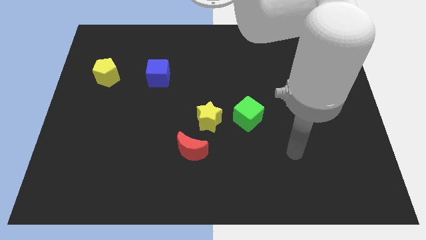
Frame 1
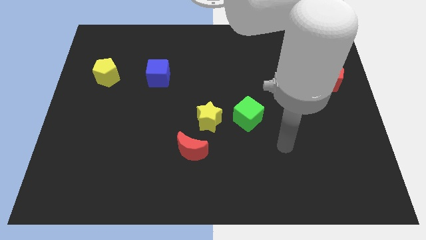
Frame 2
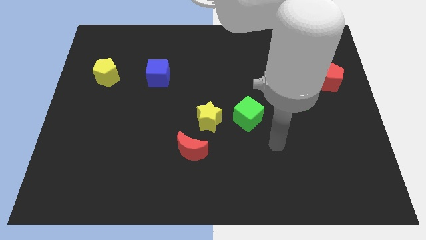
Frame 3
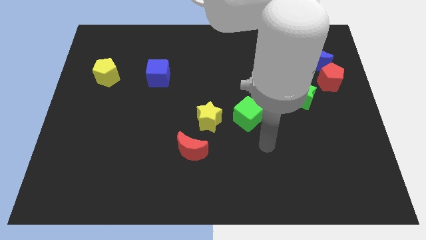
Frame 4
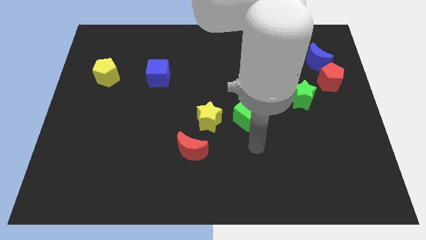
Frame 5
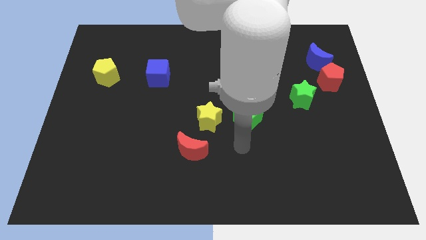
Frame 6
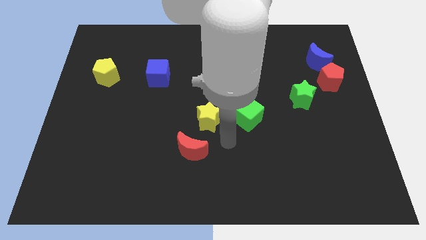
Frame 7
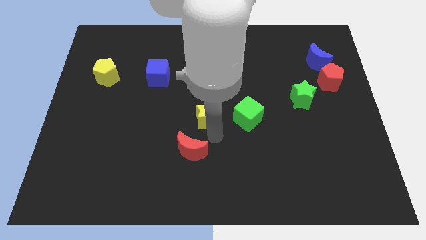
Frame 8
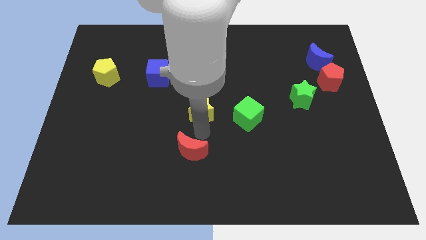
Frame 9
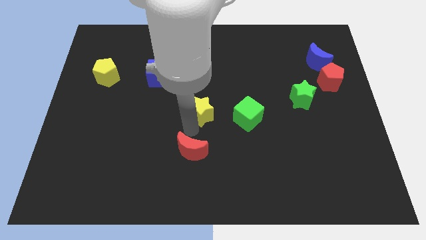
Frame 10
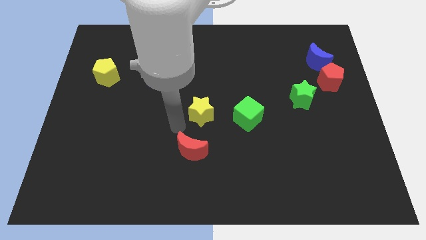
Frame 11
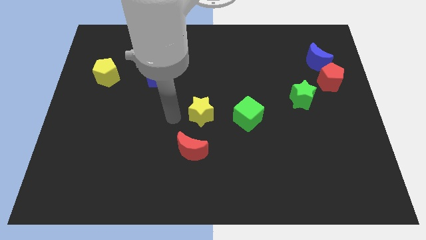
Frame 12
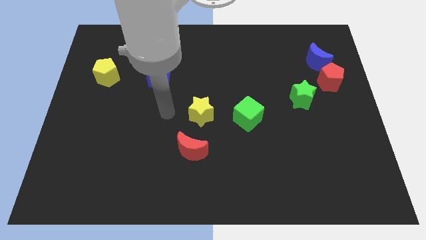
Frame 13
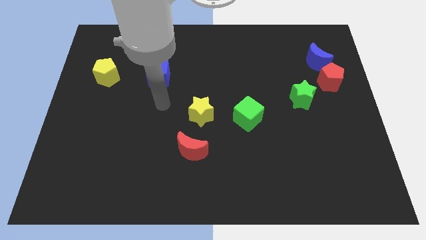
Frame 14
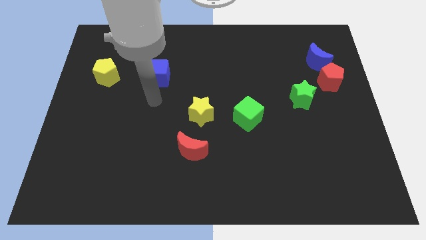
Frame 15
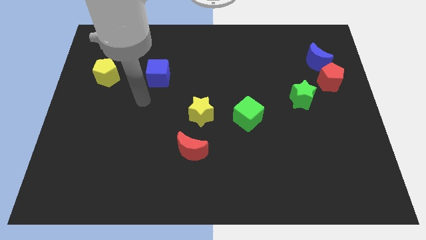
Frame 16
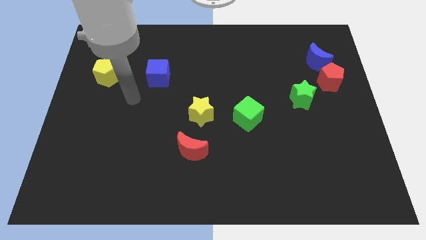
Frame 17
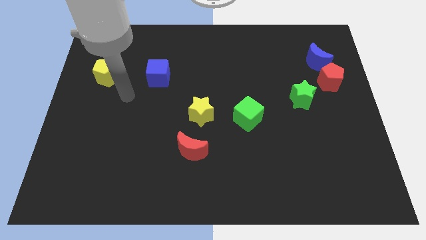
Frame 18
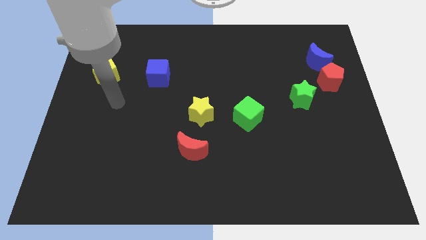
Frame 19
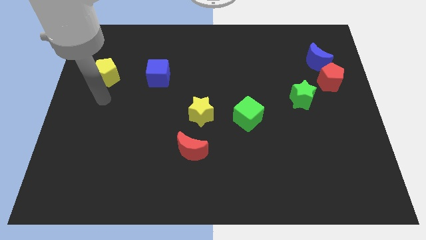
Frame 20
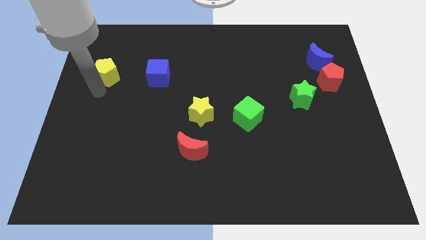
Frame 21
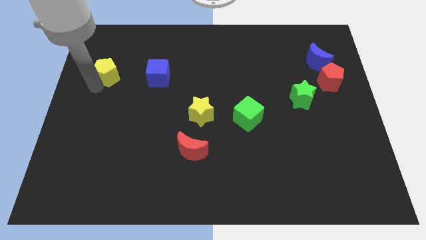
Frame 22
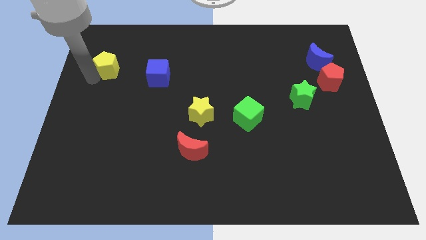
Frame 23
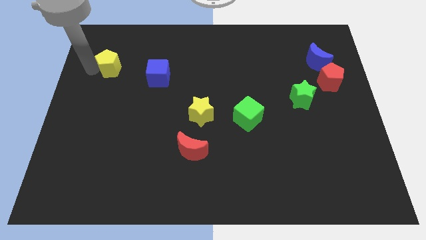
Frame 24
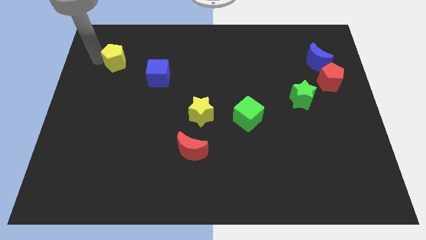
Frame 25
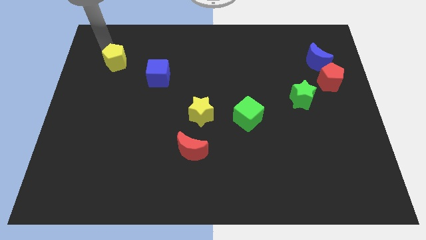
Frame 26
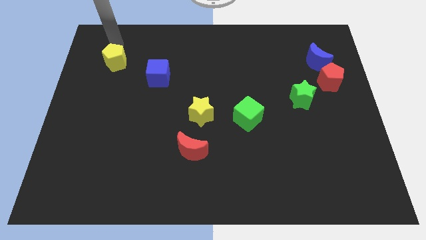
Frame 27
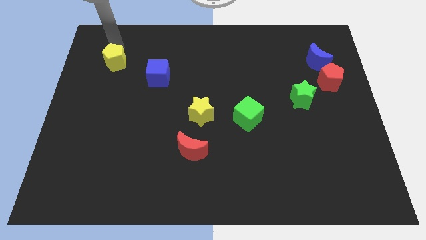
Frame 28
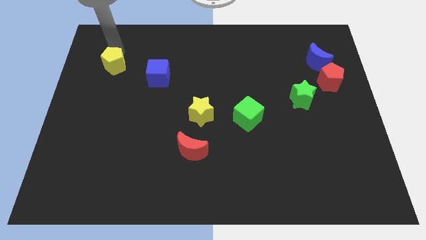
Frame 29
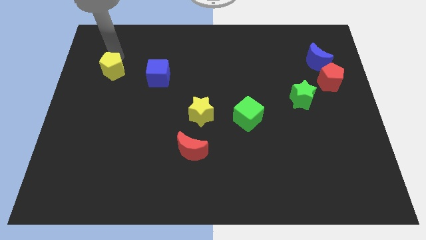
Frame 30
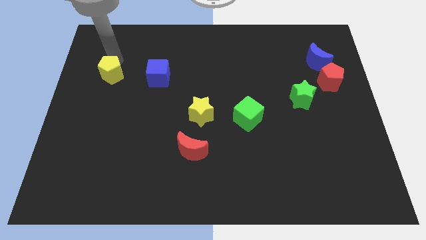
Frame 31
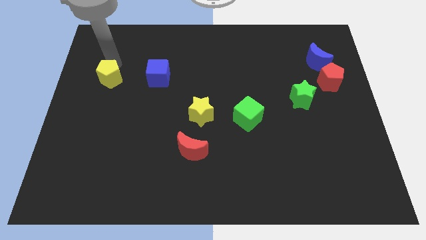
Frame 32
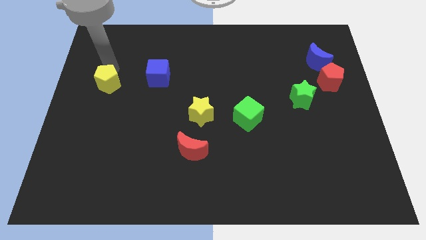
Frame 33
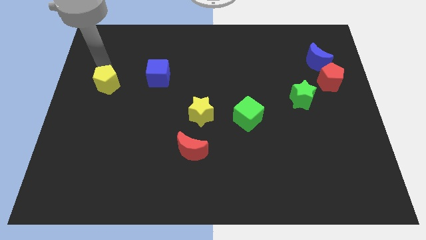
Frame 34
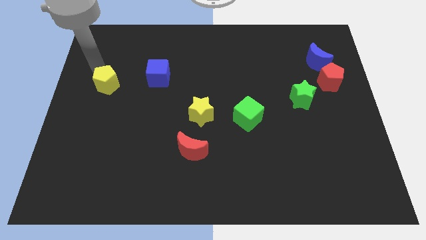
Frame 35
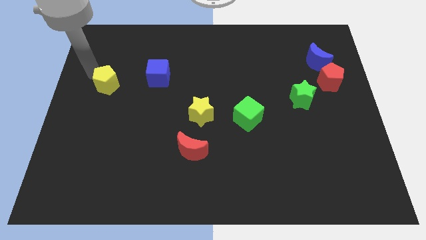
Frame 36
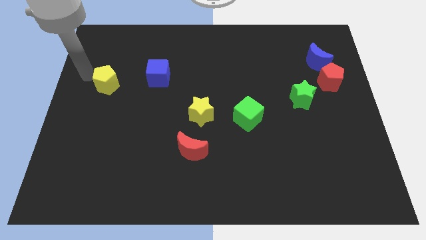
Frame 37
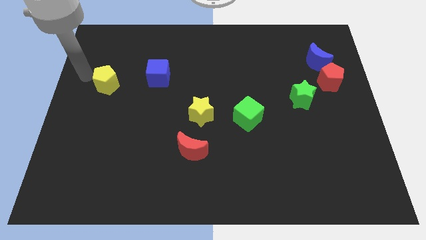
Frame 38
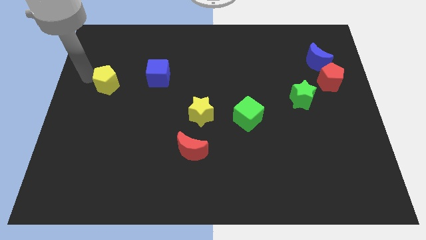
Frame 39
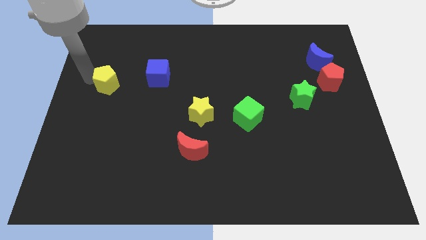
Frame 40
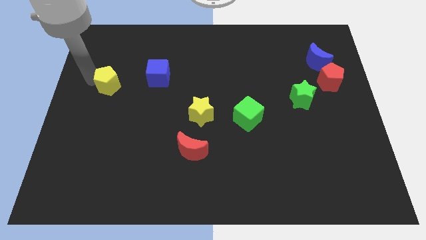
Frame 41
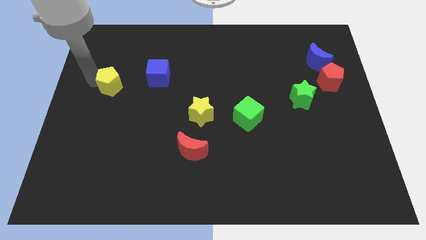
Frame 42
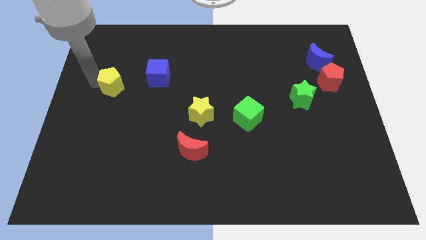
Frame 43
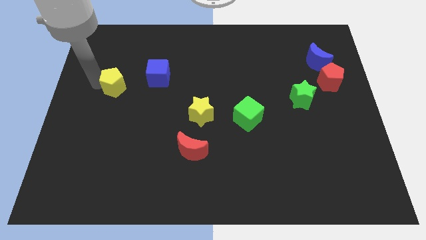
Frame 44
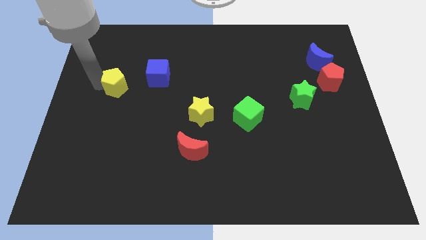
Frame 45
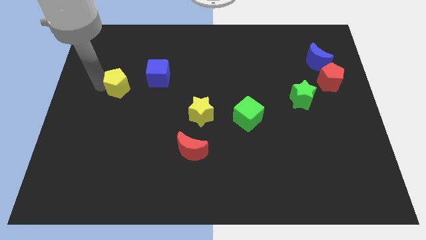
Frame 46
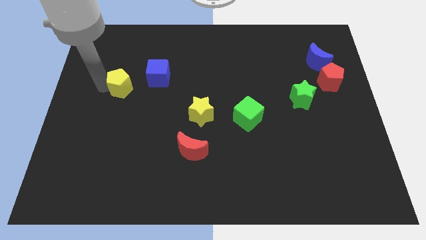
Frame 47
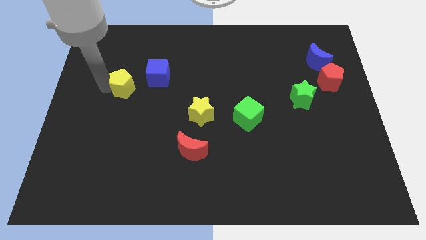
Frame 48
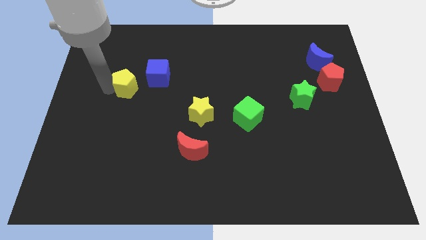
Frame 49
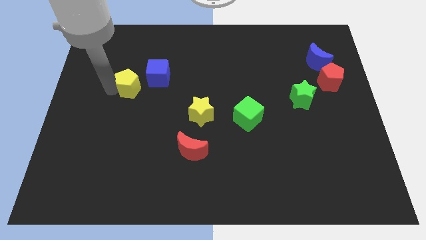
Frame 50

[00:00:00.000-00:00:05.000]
move the yellow pentagon a little diagonally downwards and to the right

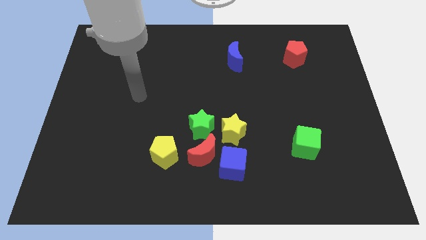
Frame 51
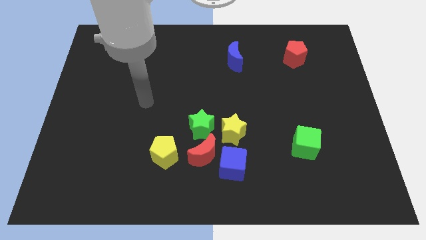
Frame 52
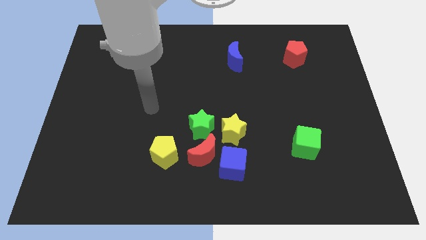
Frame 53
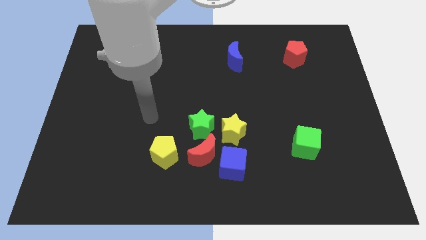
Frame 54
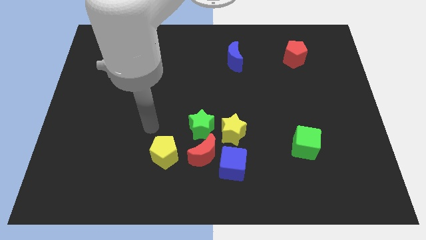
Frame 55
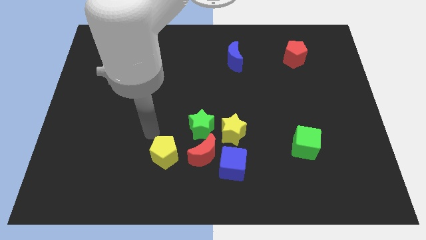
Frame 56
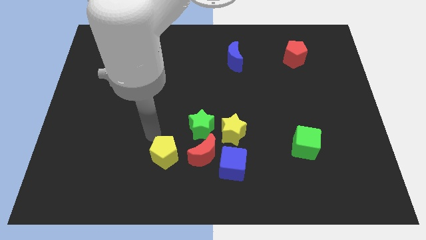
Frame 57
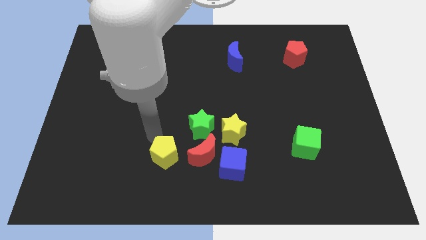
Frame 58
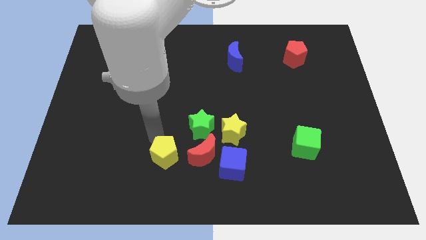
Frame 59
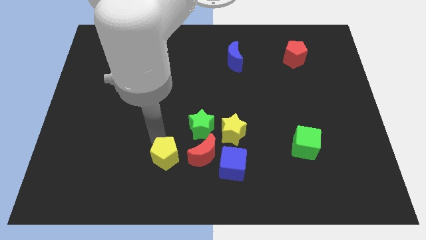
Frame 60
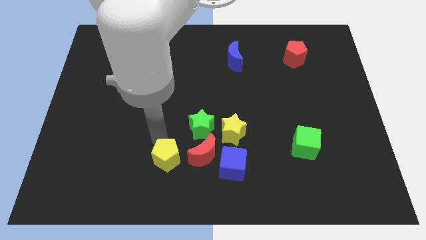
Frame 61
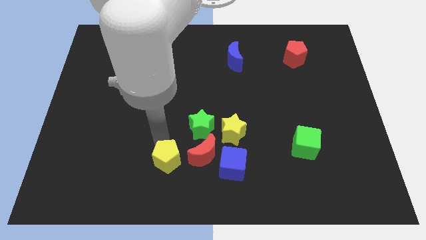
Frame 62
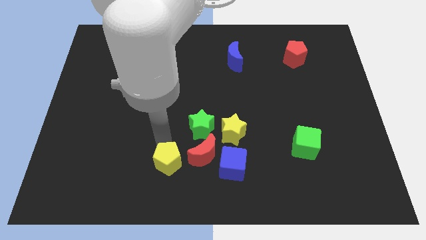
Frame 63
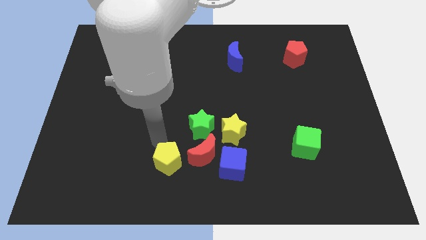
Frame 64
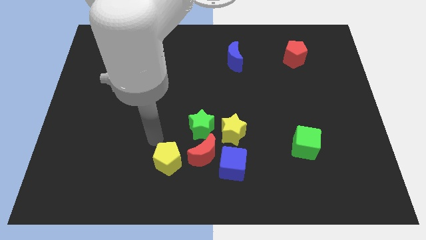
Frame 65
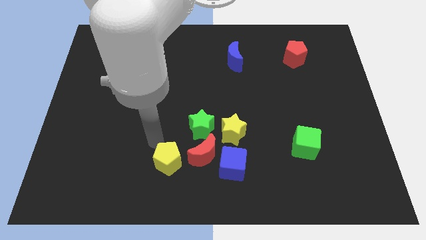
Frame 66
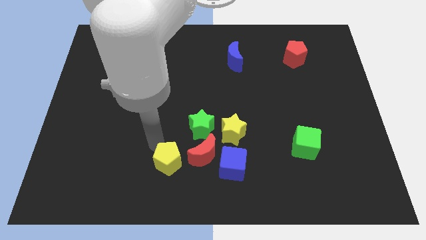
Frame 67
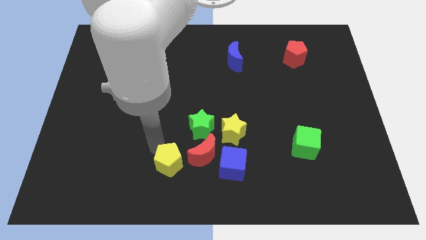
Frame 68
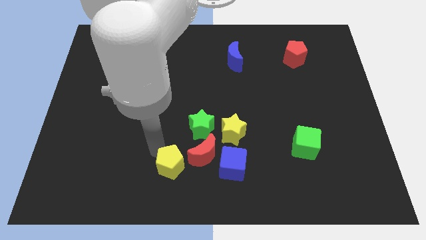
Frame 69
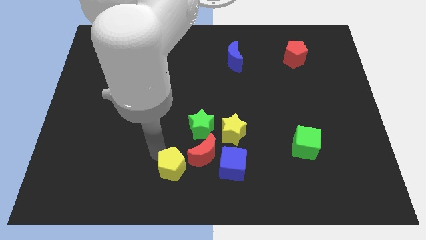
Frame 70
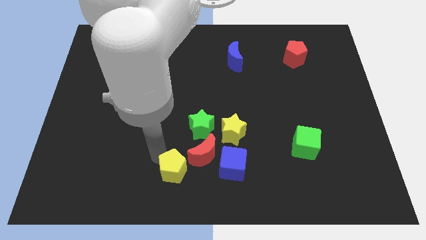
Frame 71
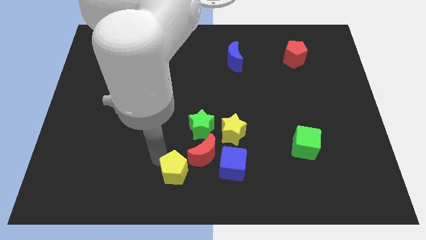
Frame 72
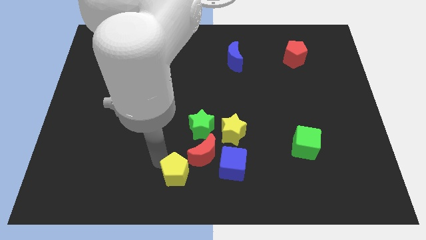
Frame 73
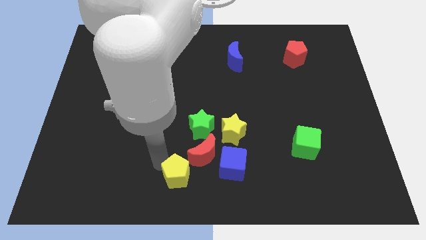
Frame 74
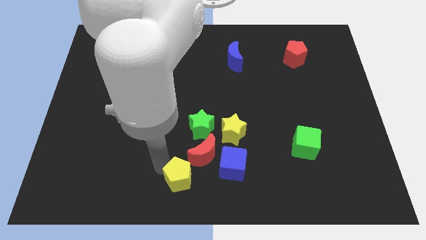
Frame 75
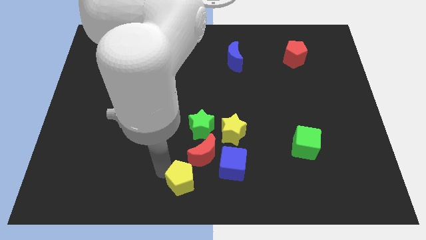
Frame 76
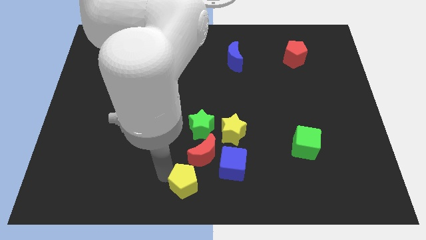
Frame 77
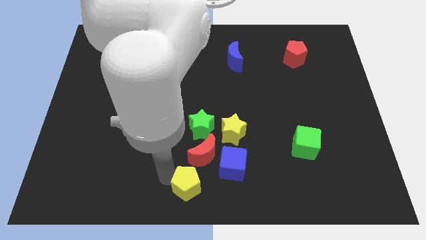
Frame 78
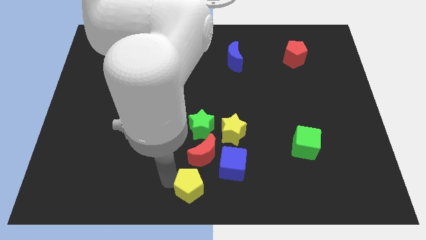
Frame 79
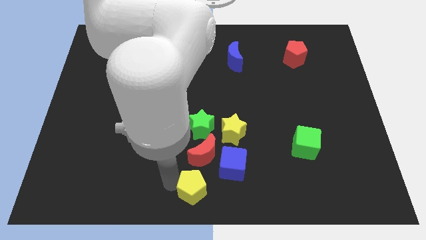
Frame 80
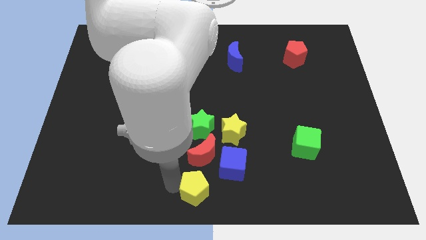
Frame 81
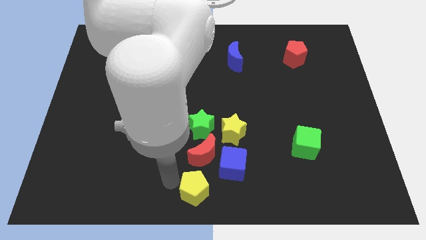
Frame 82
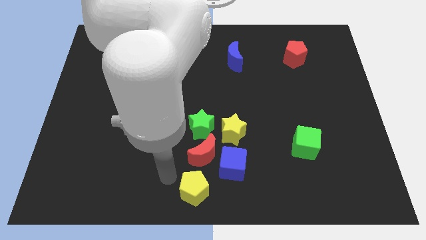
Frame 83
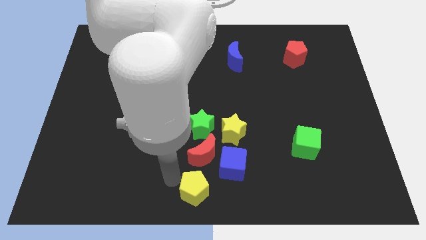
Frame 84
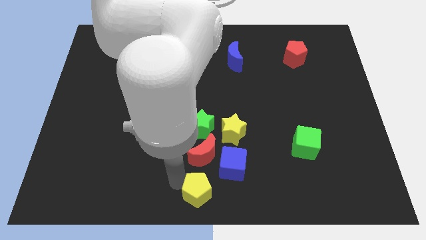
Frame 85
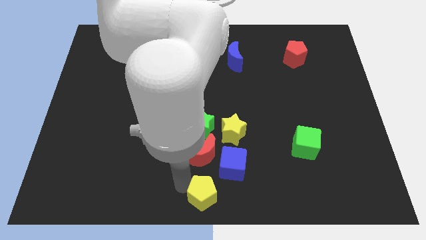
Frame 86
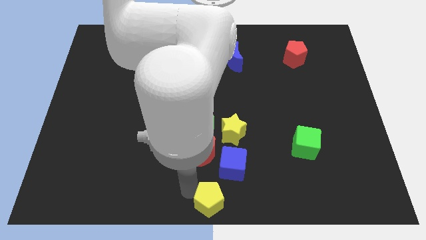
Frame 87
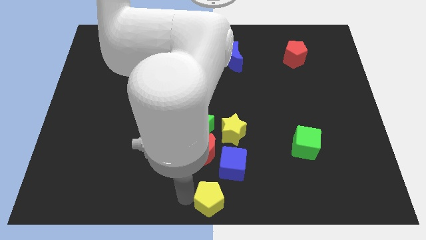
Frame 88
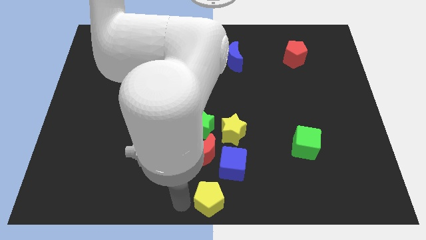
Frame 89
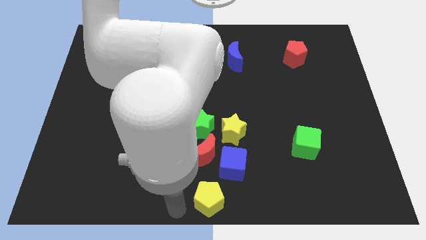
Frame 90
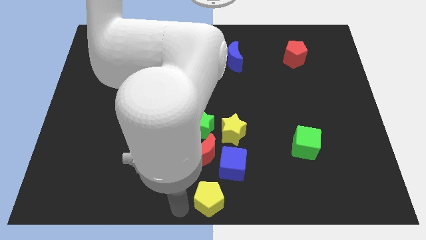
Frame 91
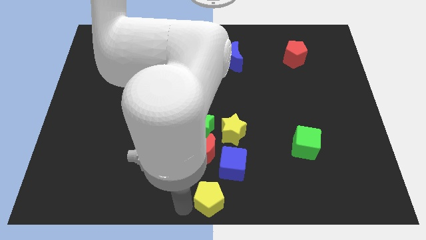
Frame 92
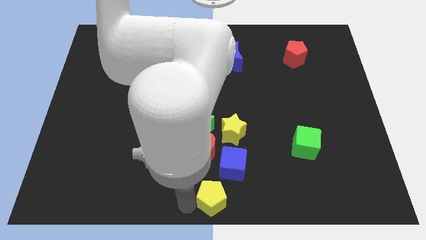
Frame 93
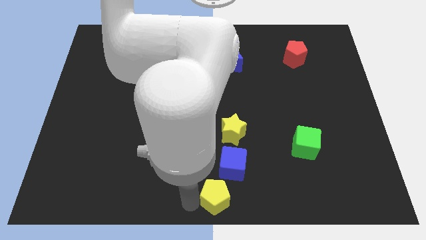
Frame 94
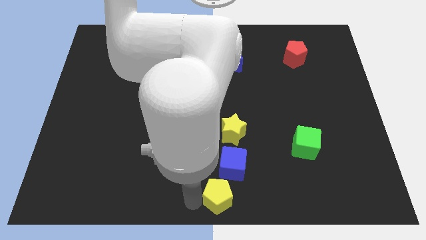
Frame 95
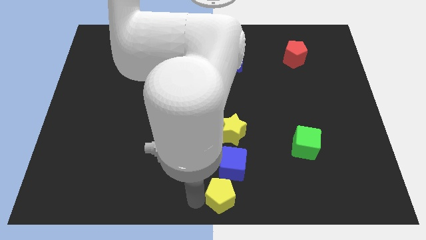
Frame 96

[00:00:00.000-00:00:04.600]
push the yellow pentagon right a bit
